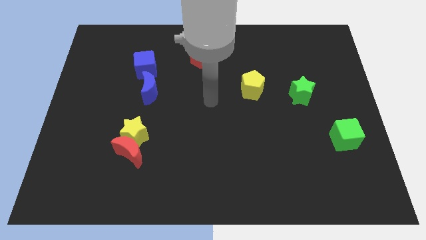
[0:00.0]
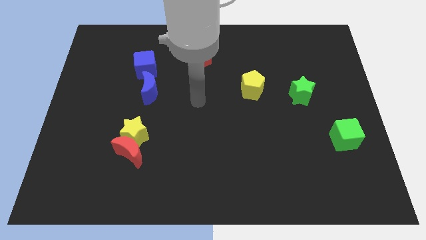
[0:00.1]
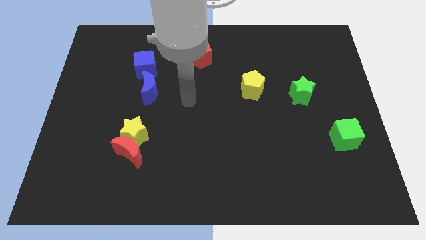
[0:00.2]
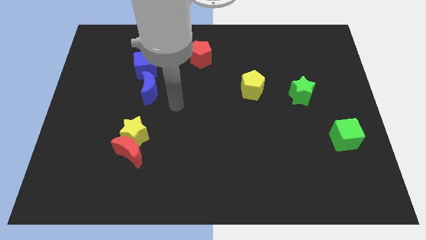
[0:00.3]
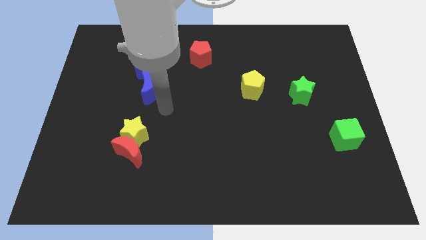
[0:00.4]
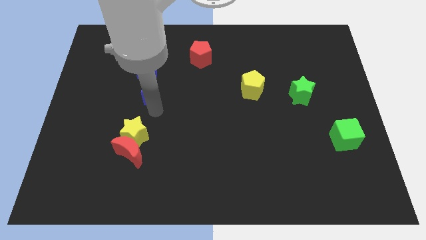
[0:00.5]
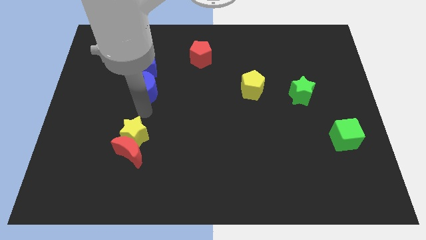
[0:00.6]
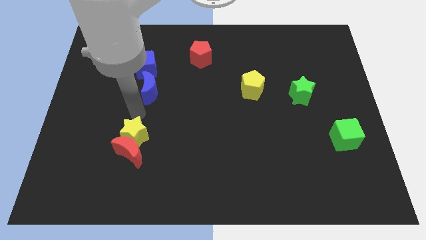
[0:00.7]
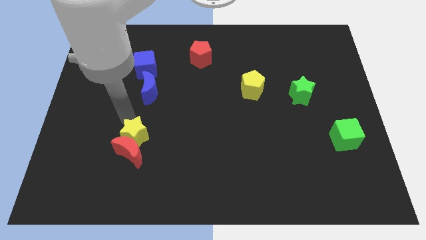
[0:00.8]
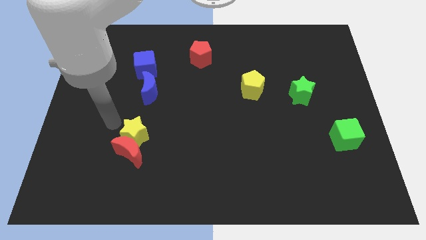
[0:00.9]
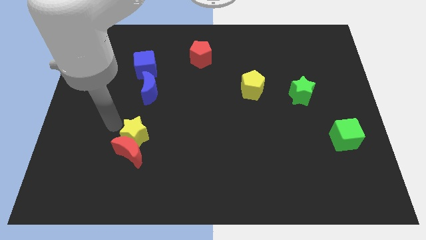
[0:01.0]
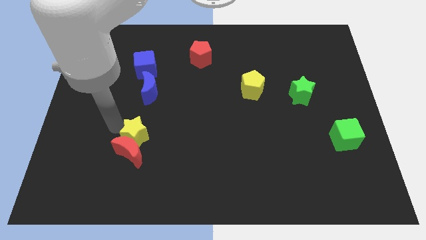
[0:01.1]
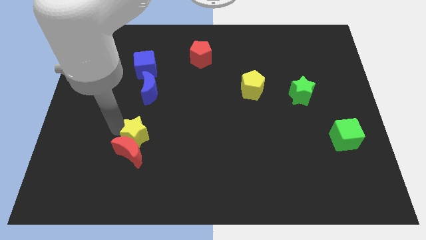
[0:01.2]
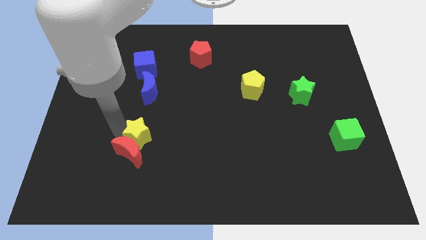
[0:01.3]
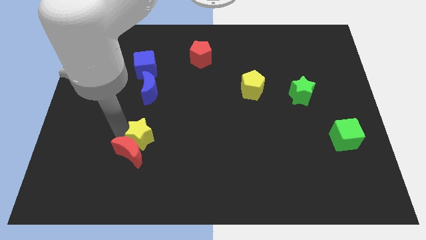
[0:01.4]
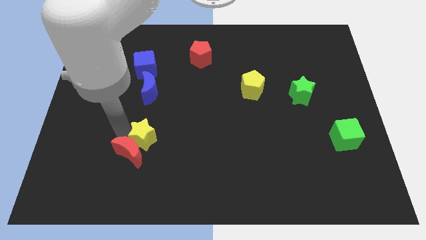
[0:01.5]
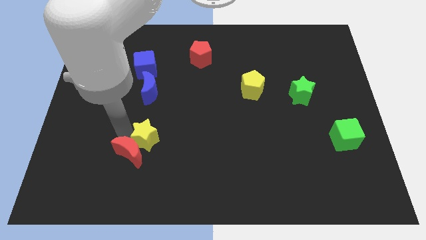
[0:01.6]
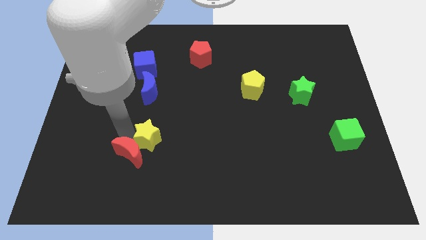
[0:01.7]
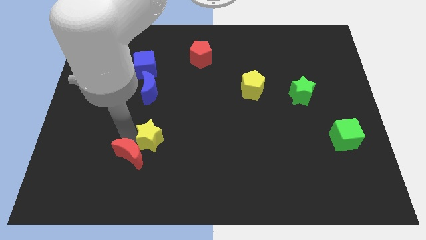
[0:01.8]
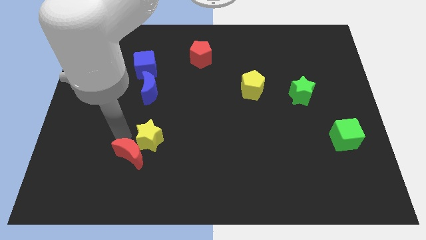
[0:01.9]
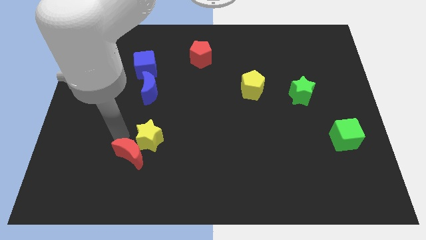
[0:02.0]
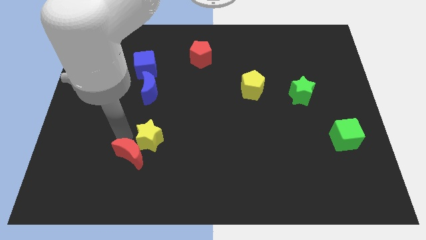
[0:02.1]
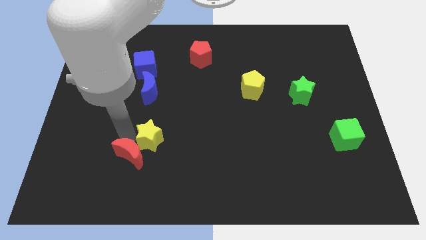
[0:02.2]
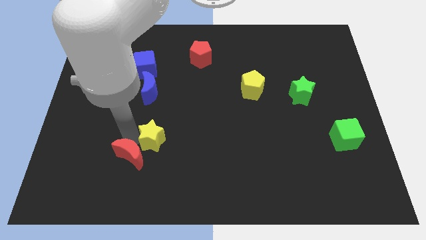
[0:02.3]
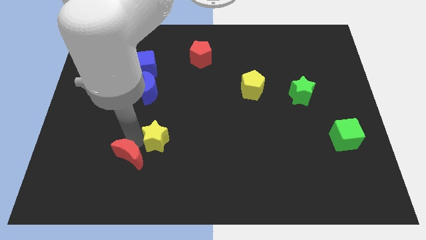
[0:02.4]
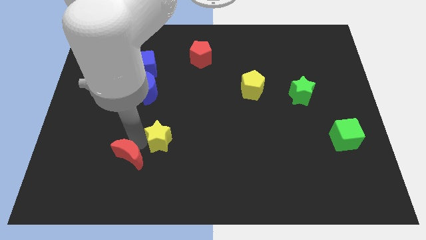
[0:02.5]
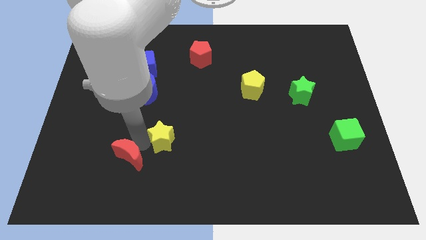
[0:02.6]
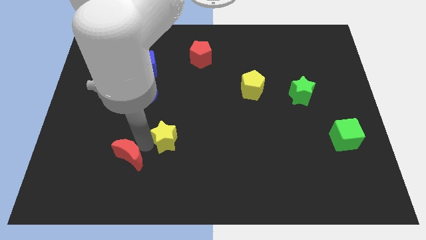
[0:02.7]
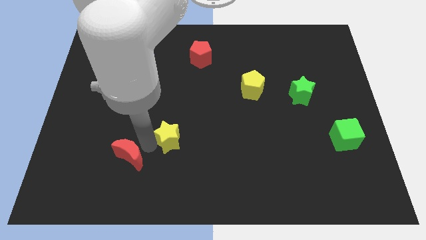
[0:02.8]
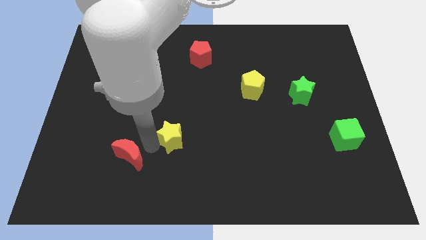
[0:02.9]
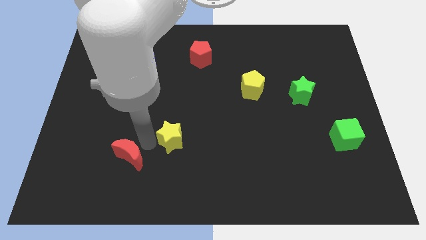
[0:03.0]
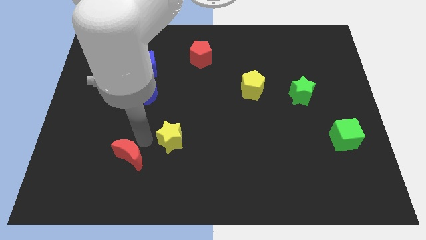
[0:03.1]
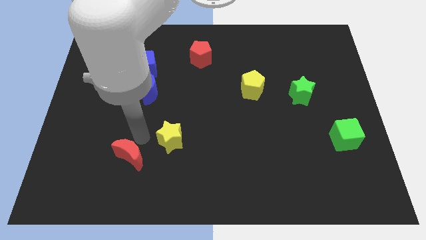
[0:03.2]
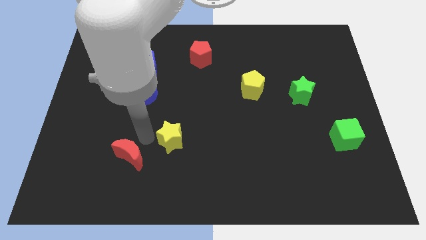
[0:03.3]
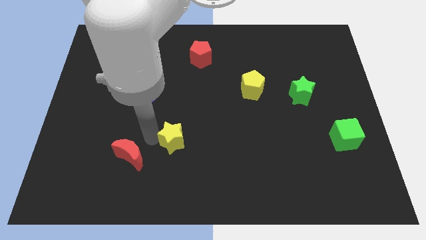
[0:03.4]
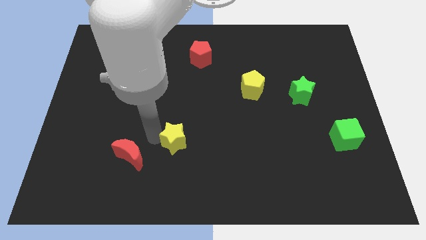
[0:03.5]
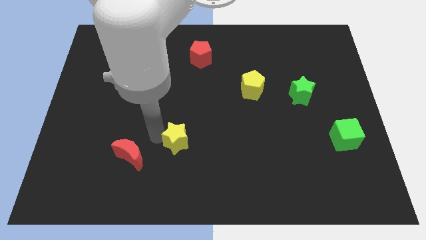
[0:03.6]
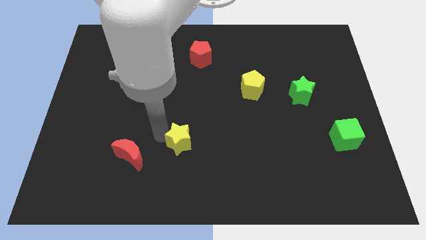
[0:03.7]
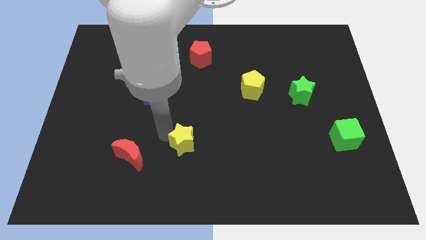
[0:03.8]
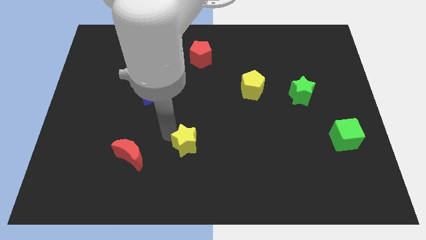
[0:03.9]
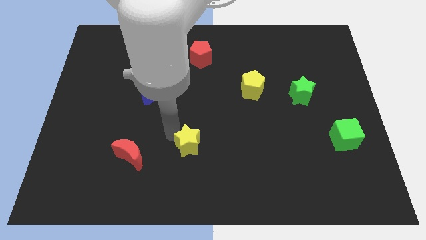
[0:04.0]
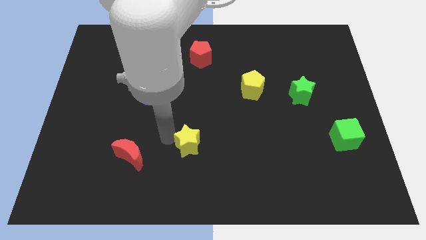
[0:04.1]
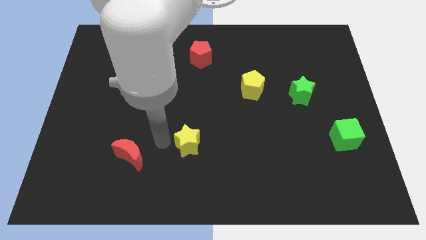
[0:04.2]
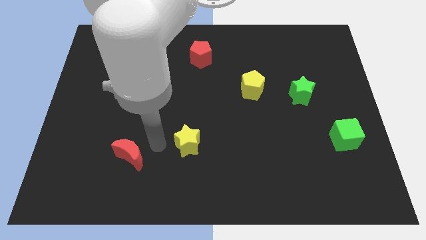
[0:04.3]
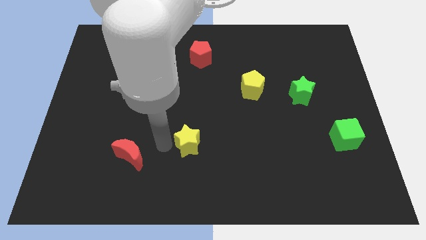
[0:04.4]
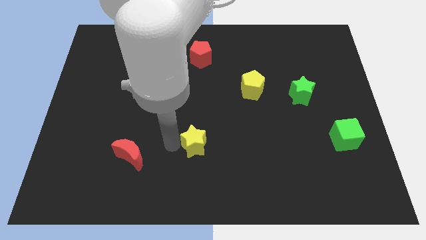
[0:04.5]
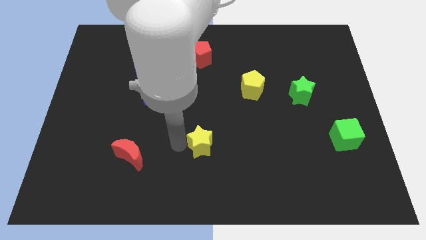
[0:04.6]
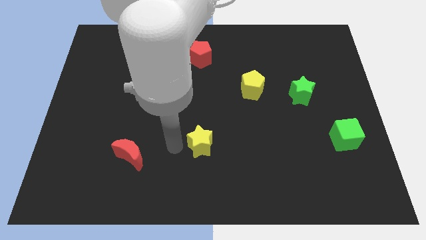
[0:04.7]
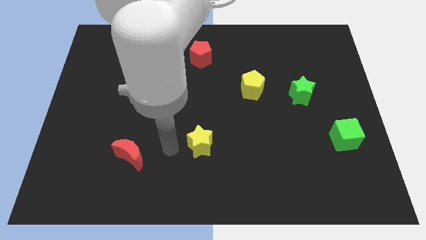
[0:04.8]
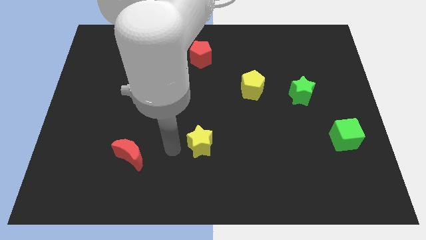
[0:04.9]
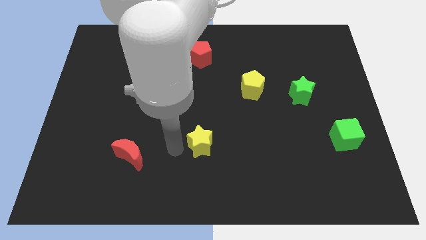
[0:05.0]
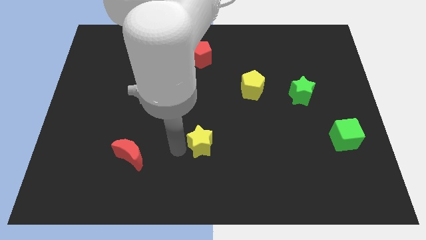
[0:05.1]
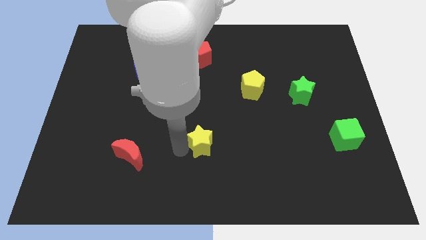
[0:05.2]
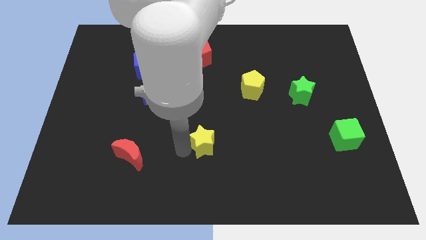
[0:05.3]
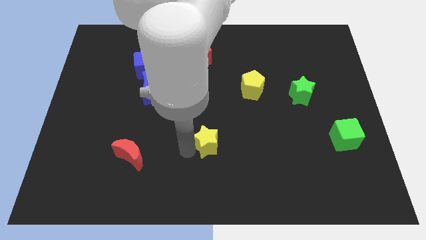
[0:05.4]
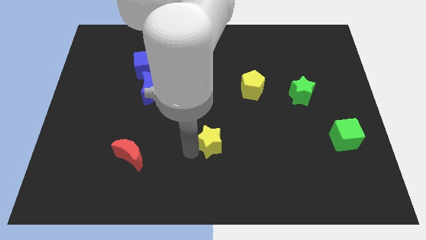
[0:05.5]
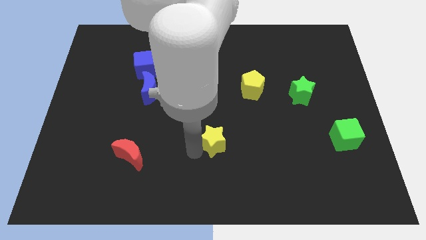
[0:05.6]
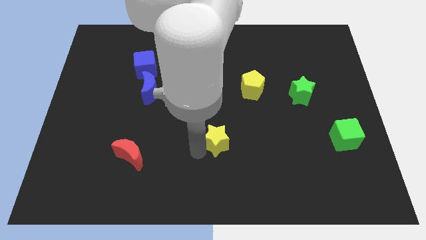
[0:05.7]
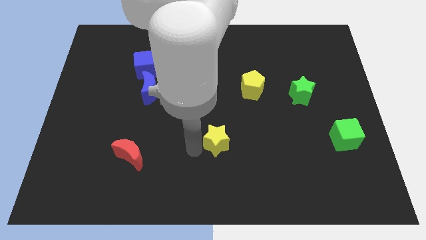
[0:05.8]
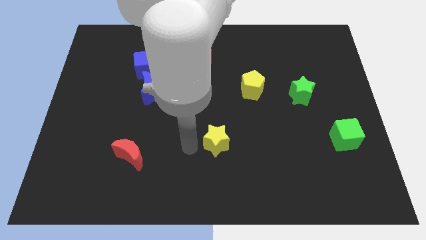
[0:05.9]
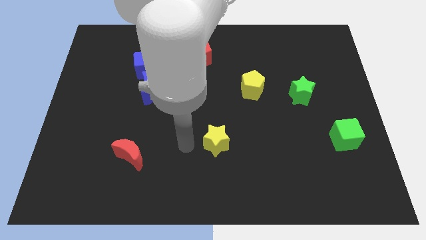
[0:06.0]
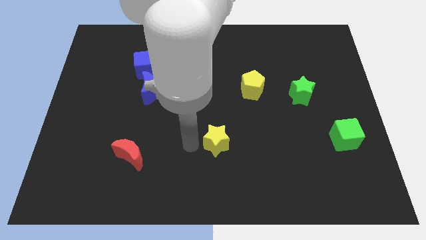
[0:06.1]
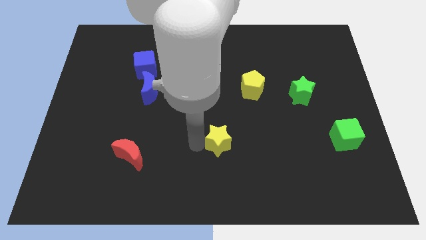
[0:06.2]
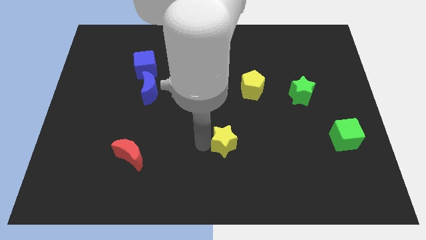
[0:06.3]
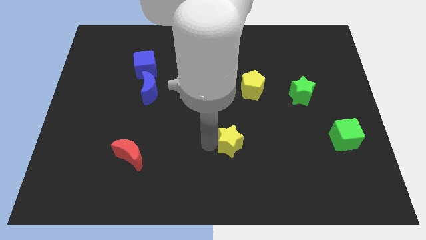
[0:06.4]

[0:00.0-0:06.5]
push the yellow star right

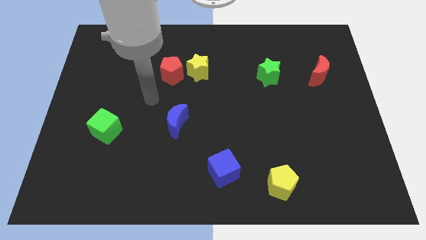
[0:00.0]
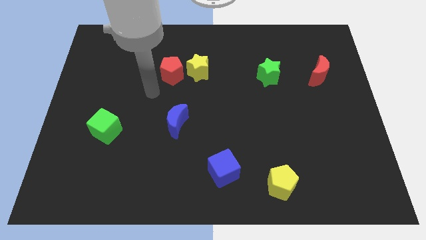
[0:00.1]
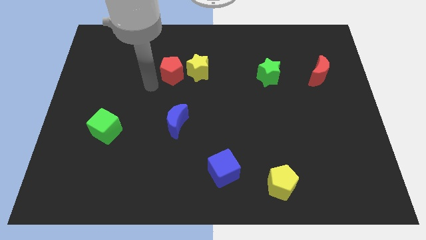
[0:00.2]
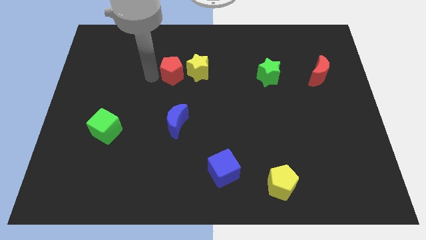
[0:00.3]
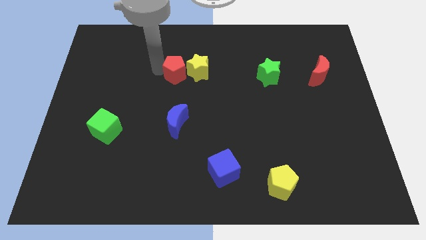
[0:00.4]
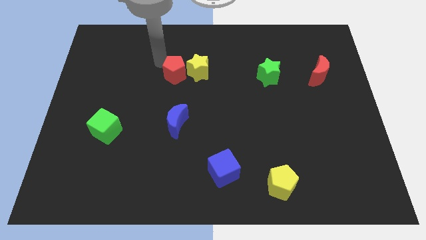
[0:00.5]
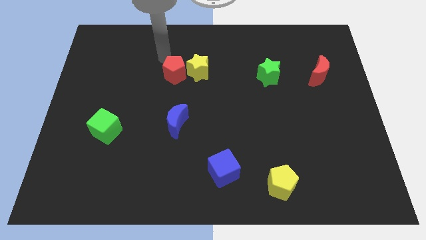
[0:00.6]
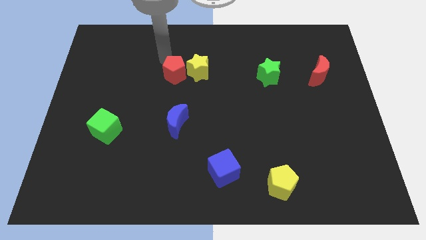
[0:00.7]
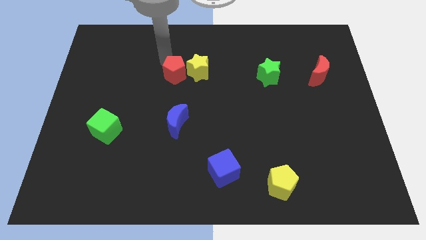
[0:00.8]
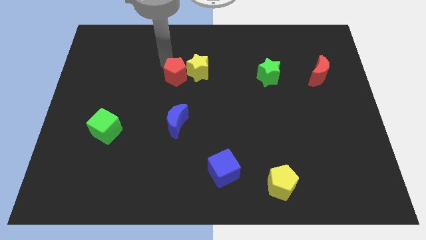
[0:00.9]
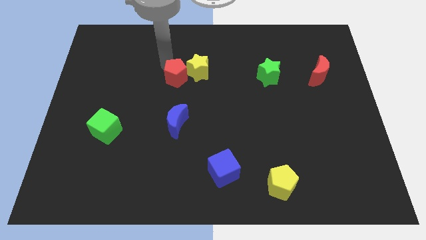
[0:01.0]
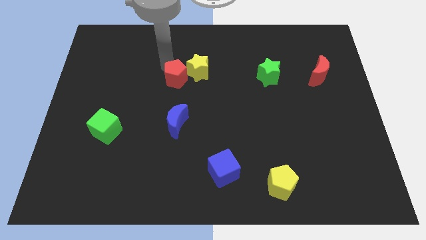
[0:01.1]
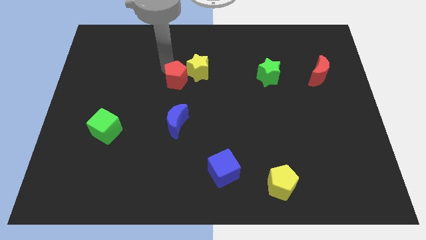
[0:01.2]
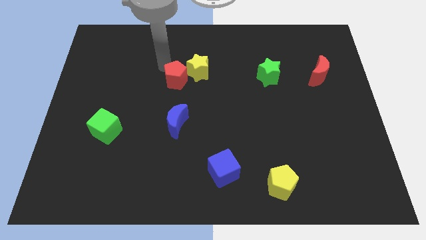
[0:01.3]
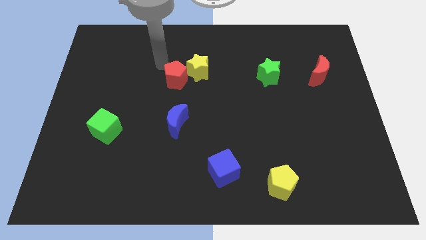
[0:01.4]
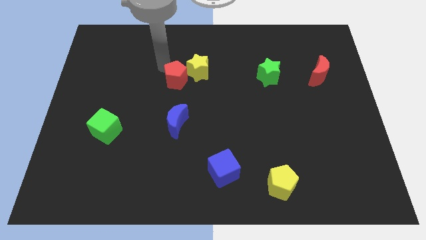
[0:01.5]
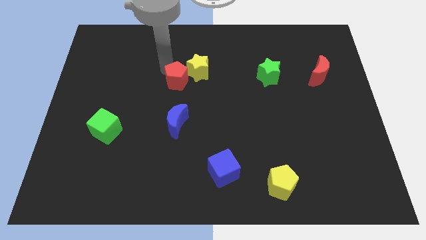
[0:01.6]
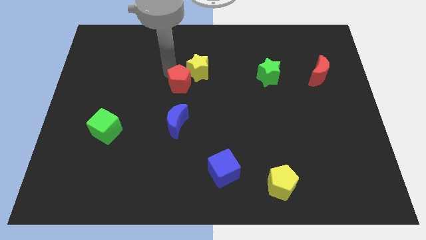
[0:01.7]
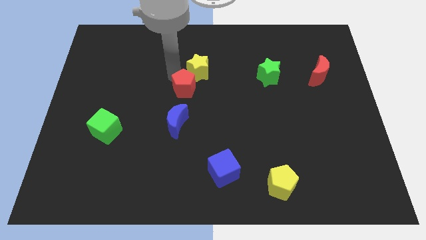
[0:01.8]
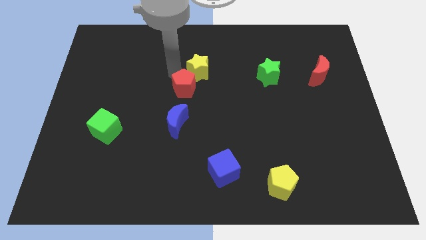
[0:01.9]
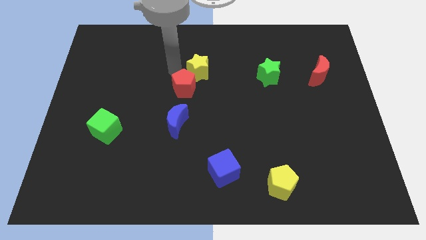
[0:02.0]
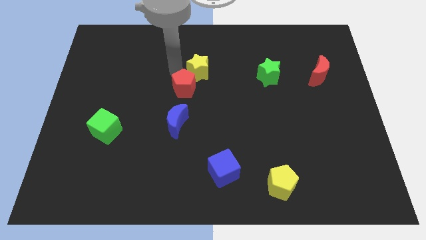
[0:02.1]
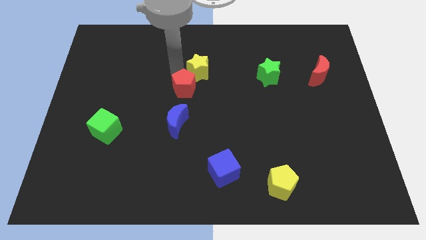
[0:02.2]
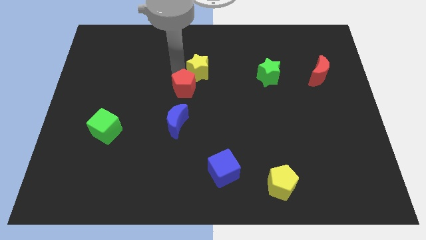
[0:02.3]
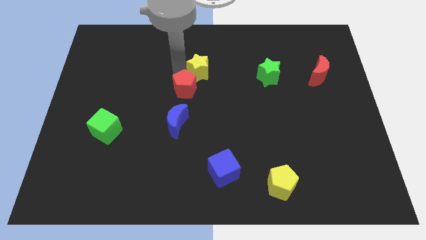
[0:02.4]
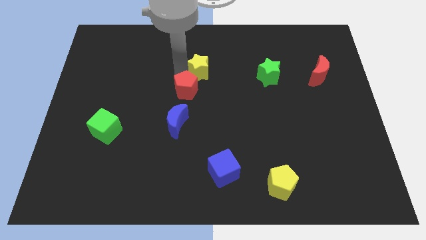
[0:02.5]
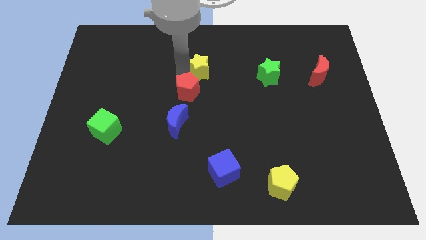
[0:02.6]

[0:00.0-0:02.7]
slightly move the red pentagon diagonally down and right
